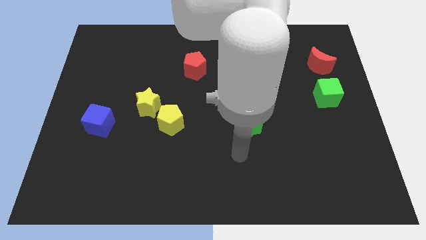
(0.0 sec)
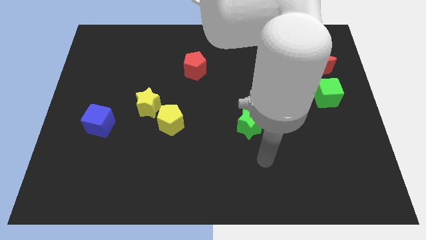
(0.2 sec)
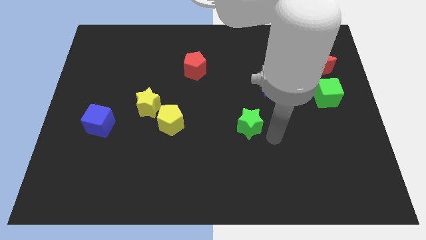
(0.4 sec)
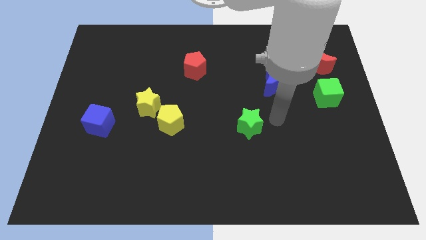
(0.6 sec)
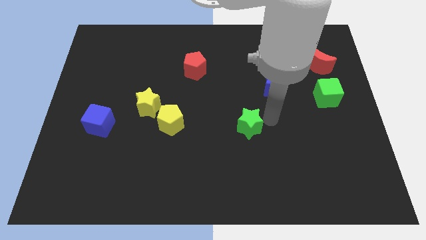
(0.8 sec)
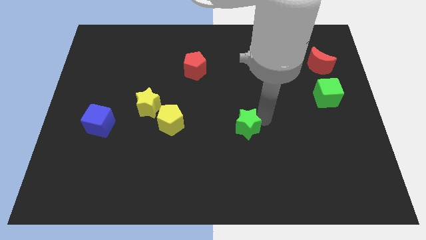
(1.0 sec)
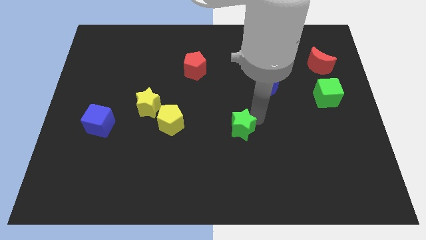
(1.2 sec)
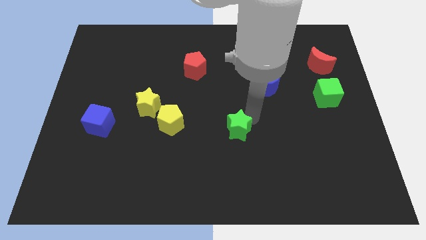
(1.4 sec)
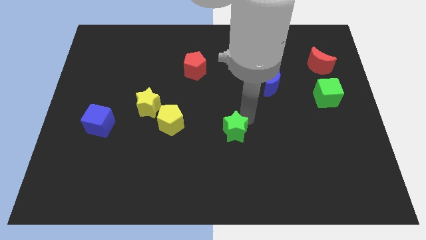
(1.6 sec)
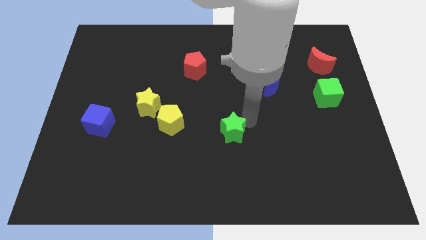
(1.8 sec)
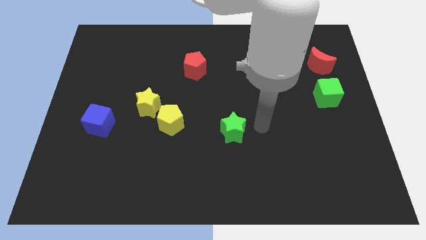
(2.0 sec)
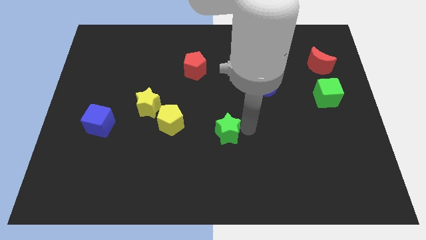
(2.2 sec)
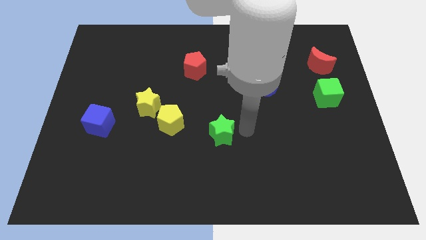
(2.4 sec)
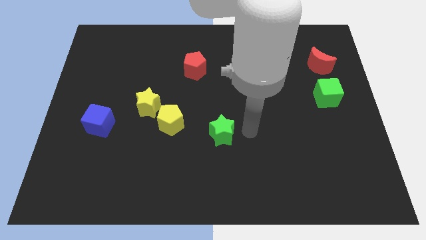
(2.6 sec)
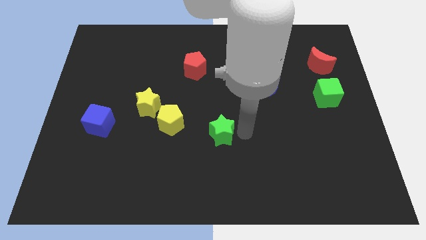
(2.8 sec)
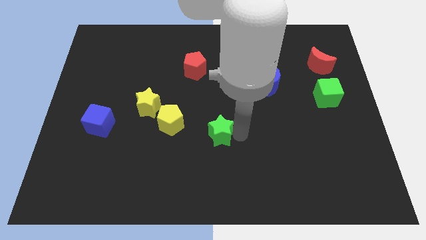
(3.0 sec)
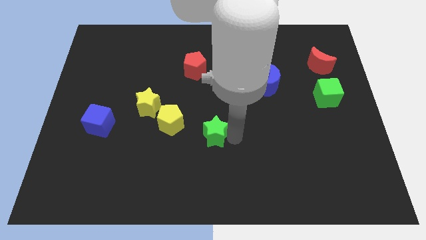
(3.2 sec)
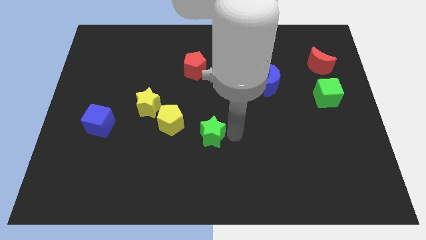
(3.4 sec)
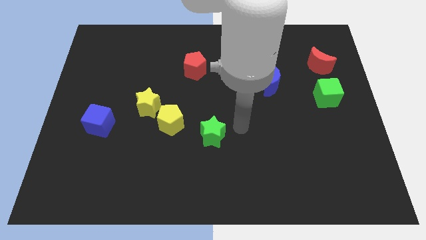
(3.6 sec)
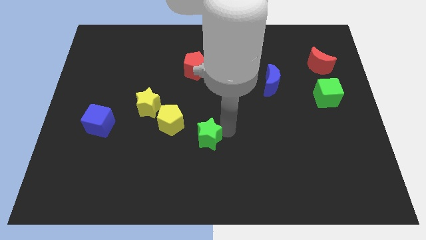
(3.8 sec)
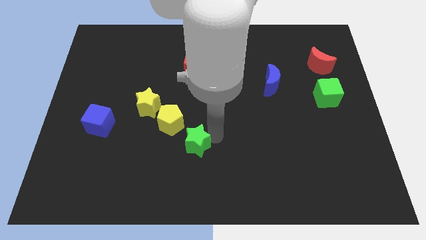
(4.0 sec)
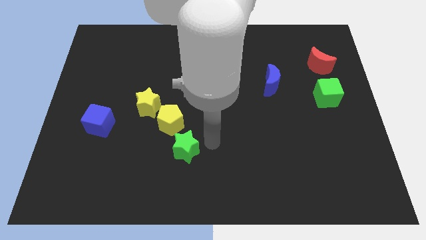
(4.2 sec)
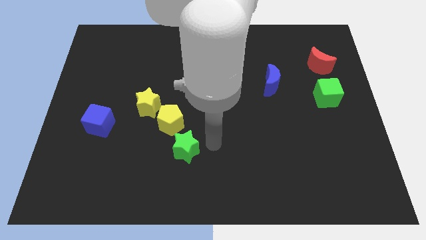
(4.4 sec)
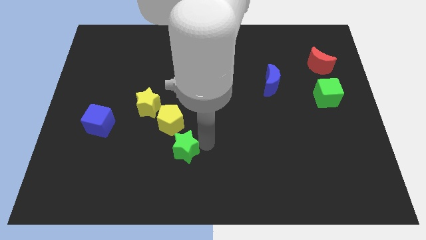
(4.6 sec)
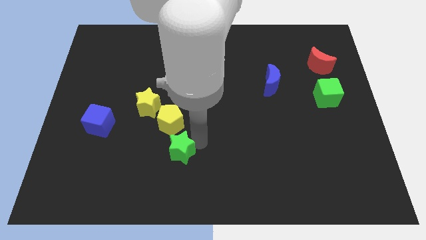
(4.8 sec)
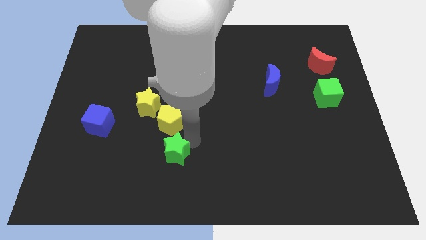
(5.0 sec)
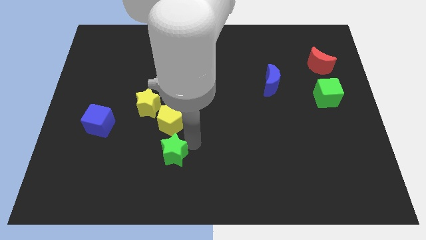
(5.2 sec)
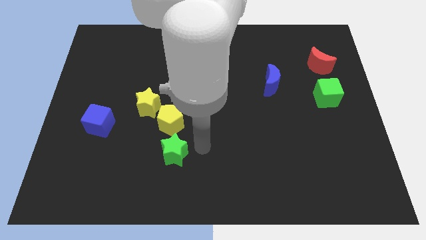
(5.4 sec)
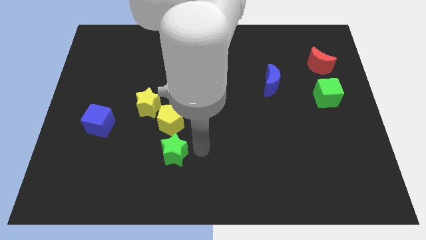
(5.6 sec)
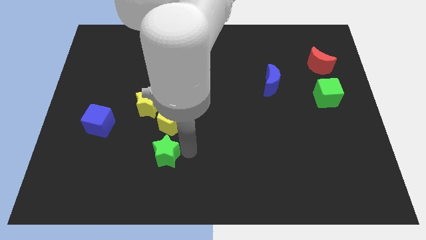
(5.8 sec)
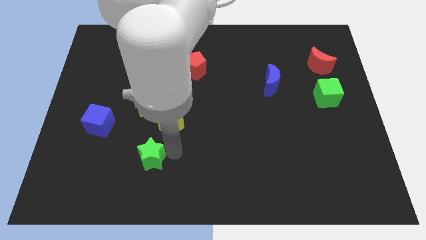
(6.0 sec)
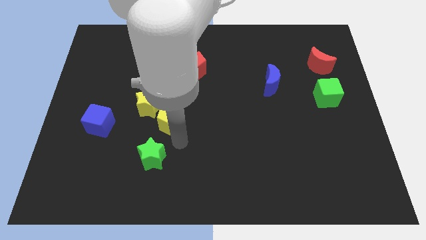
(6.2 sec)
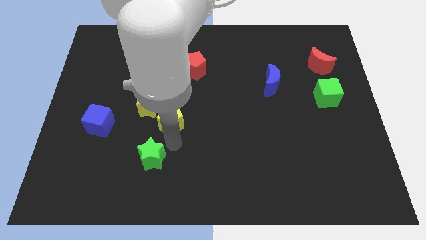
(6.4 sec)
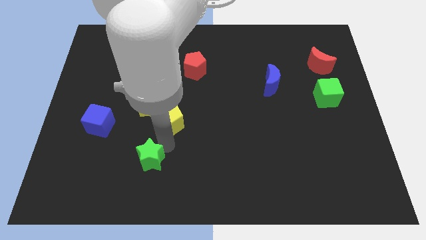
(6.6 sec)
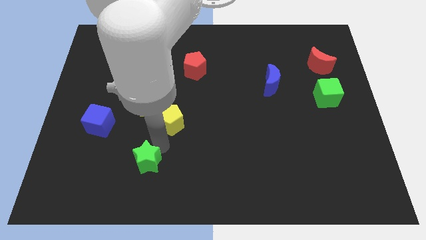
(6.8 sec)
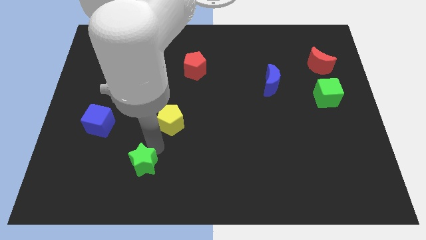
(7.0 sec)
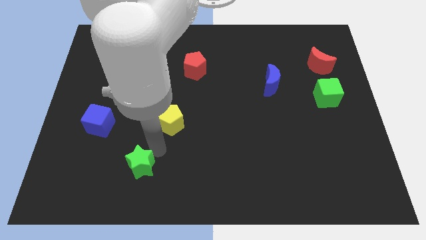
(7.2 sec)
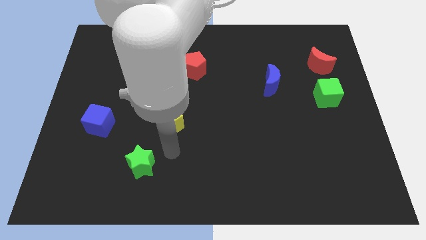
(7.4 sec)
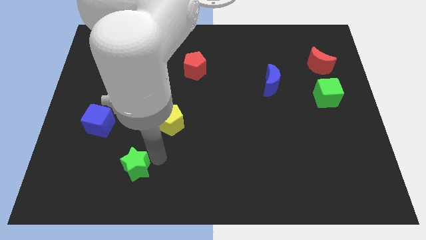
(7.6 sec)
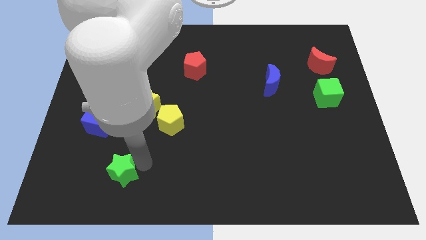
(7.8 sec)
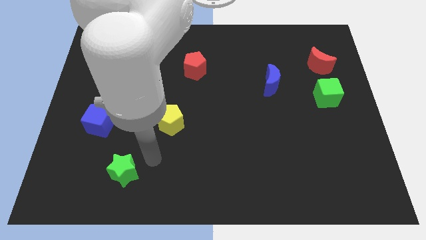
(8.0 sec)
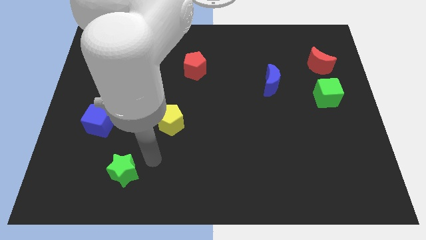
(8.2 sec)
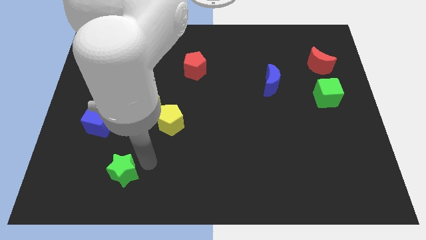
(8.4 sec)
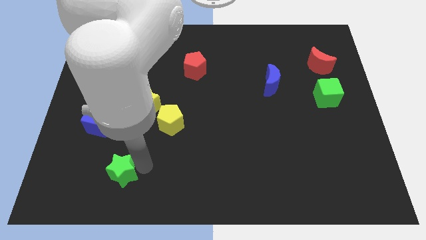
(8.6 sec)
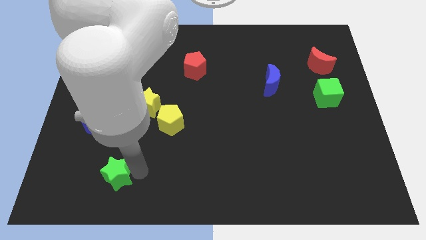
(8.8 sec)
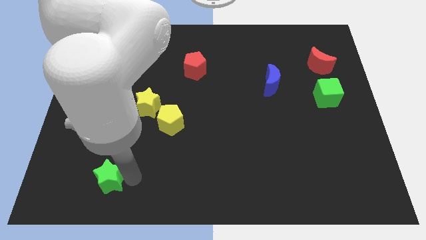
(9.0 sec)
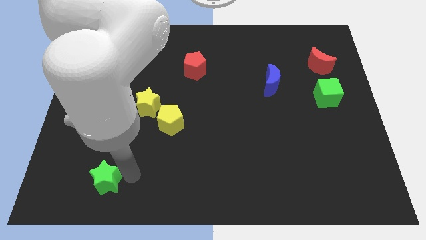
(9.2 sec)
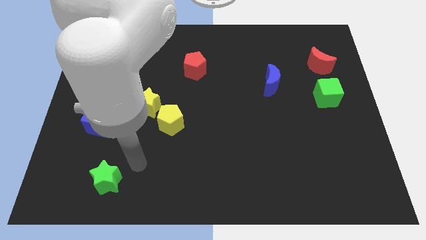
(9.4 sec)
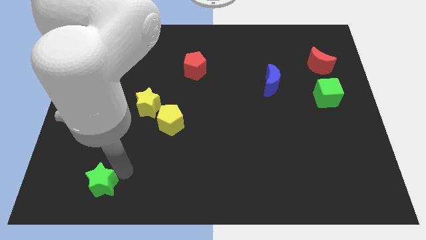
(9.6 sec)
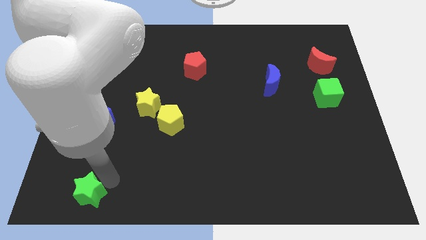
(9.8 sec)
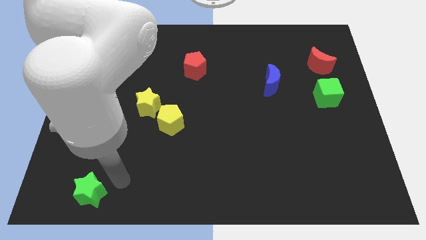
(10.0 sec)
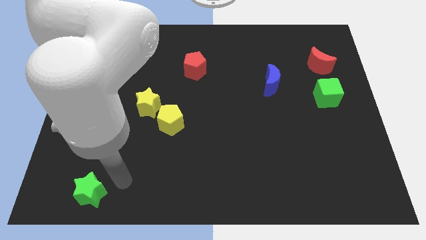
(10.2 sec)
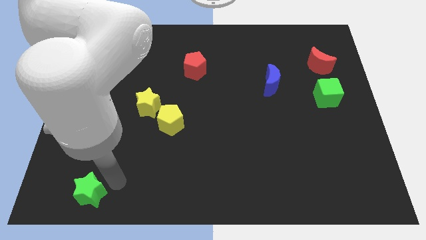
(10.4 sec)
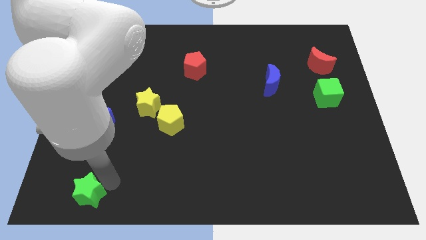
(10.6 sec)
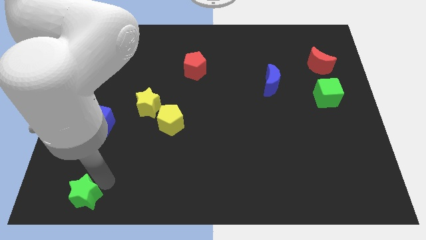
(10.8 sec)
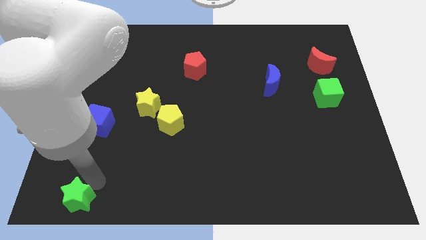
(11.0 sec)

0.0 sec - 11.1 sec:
push the green star to the bottom left of the board

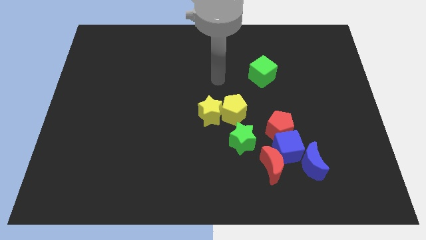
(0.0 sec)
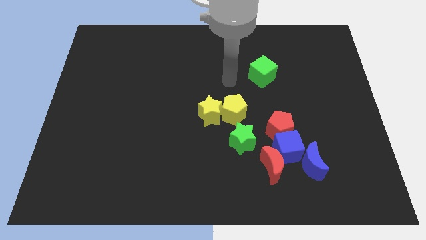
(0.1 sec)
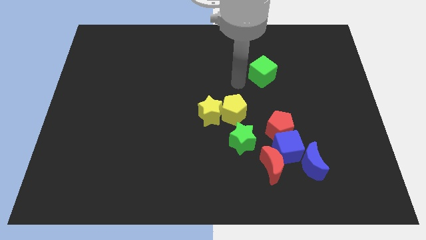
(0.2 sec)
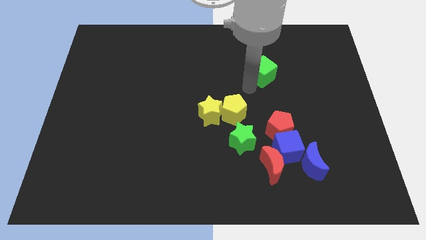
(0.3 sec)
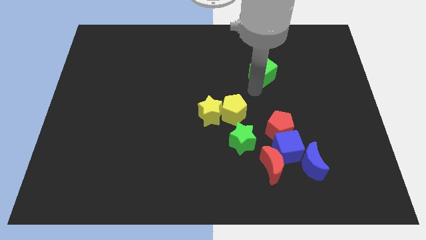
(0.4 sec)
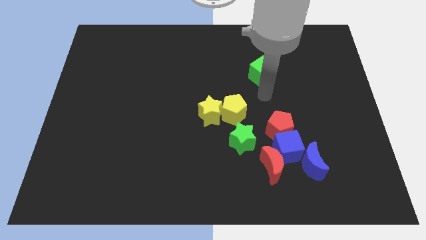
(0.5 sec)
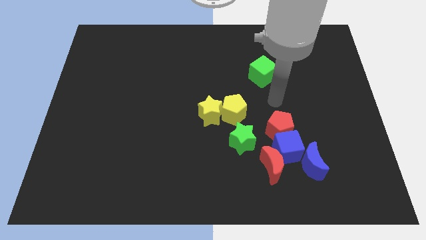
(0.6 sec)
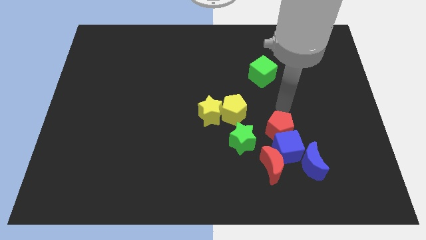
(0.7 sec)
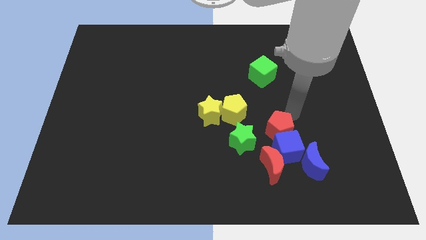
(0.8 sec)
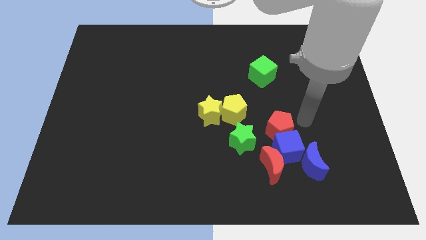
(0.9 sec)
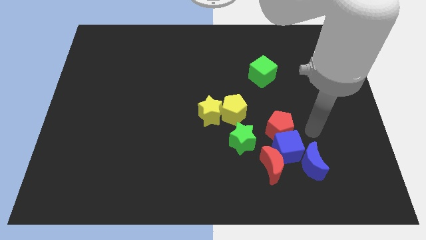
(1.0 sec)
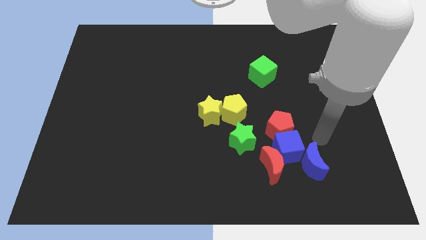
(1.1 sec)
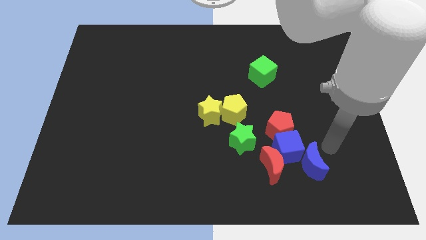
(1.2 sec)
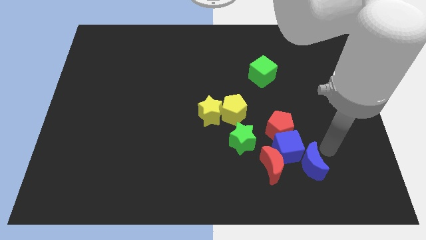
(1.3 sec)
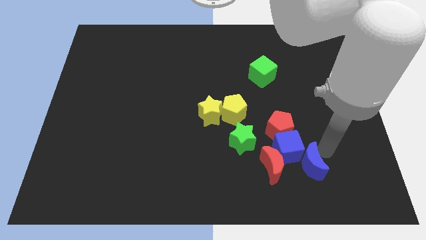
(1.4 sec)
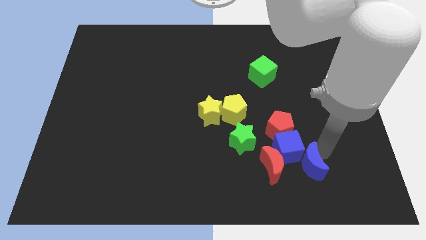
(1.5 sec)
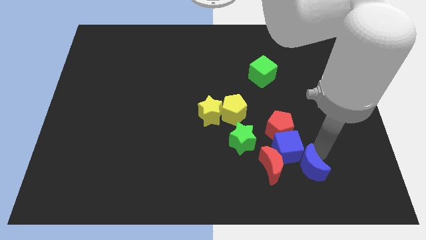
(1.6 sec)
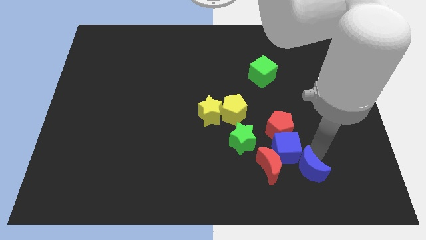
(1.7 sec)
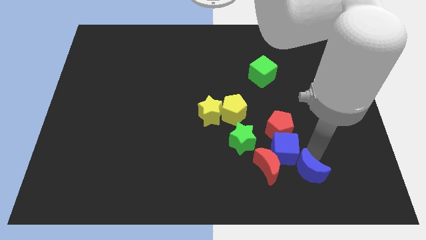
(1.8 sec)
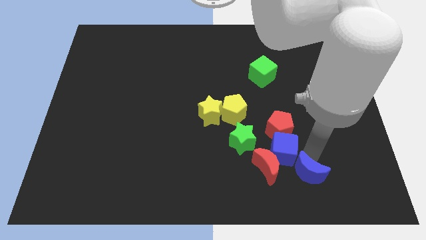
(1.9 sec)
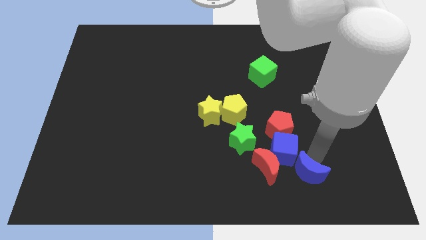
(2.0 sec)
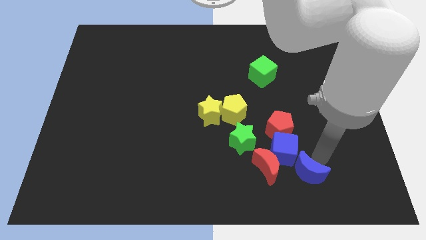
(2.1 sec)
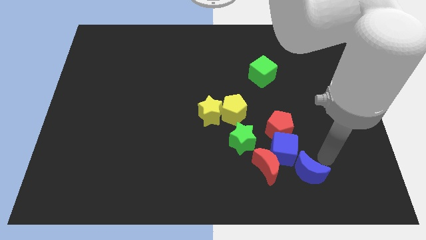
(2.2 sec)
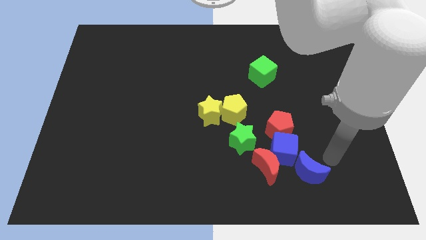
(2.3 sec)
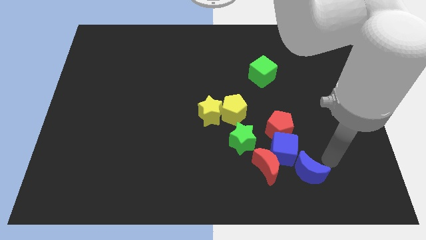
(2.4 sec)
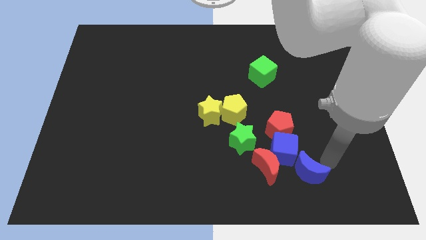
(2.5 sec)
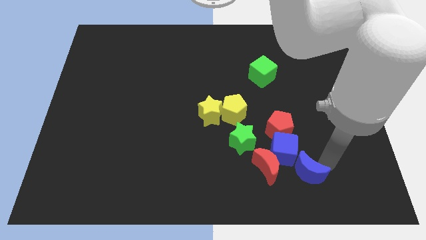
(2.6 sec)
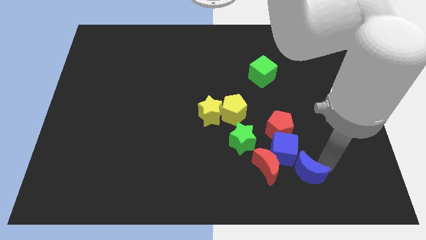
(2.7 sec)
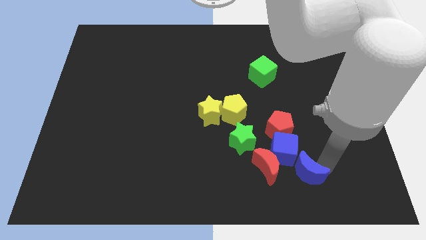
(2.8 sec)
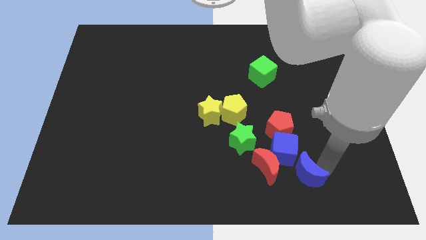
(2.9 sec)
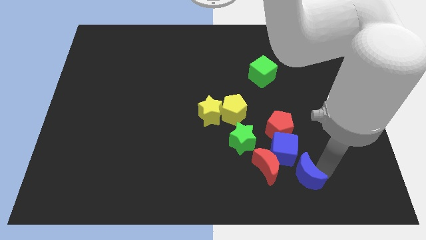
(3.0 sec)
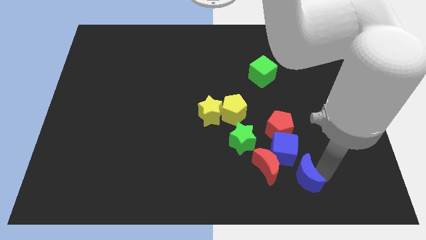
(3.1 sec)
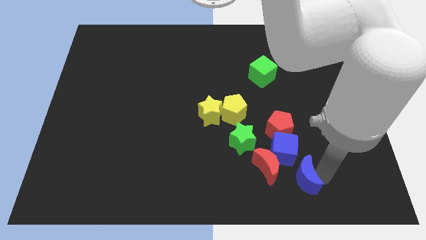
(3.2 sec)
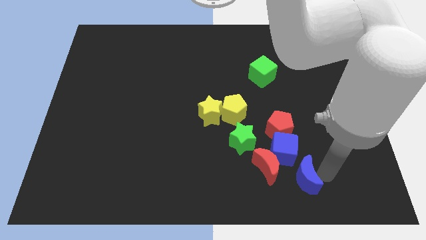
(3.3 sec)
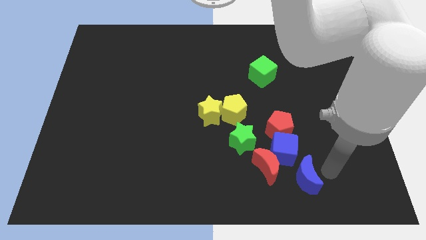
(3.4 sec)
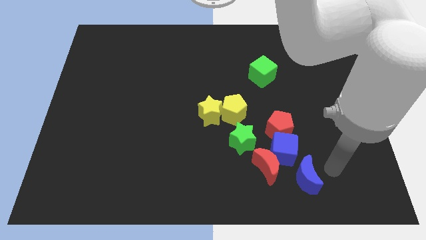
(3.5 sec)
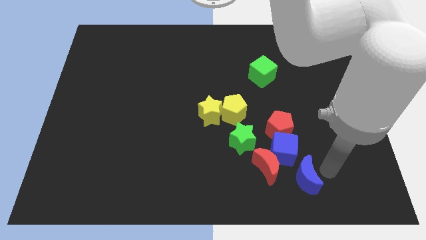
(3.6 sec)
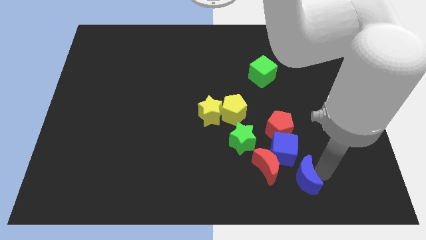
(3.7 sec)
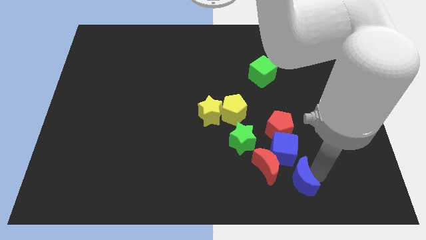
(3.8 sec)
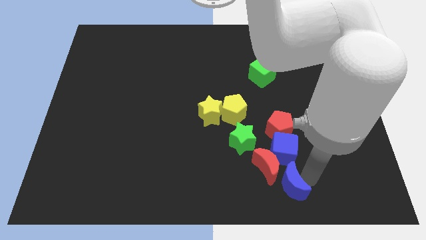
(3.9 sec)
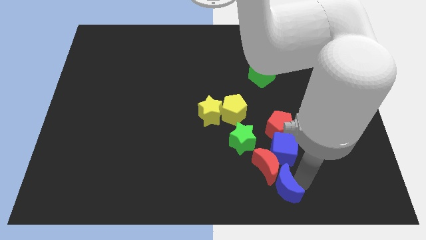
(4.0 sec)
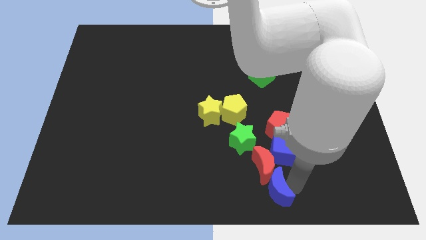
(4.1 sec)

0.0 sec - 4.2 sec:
move the blue moon to the bottom
